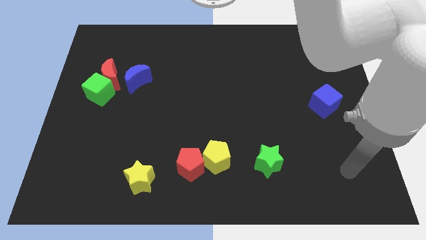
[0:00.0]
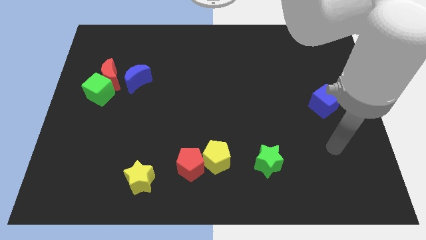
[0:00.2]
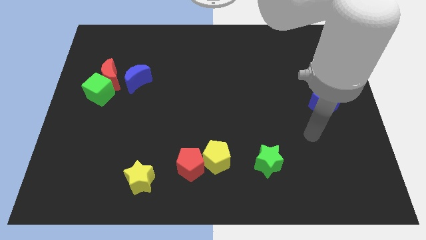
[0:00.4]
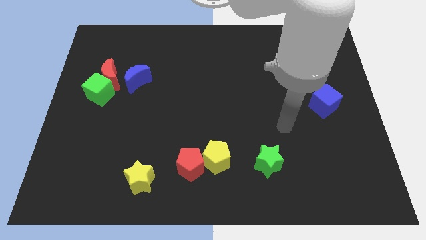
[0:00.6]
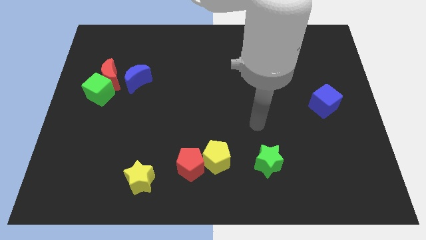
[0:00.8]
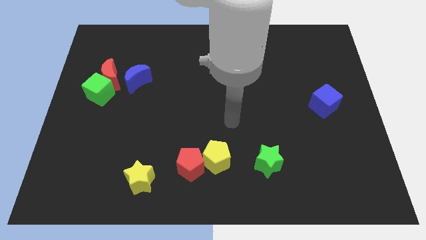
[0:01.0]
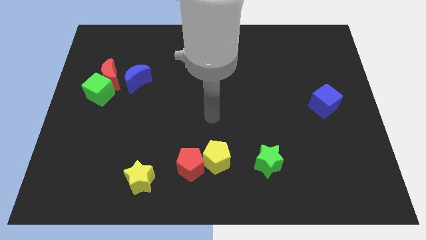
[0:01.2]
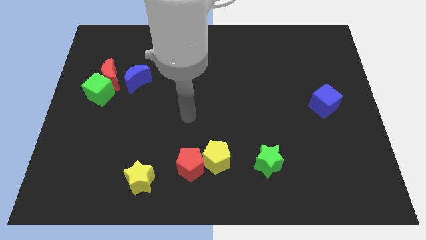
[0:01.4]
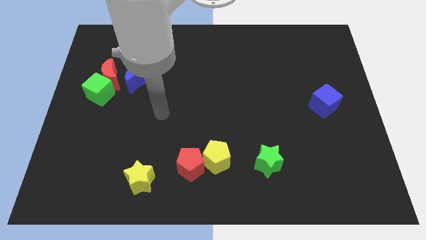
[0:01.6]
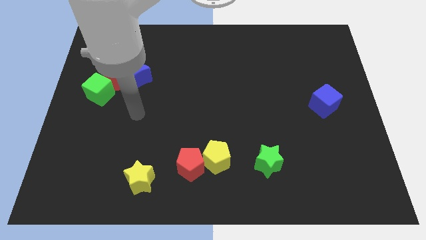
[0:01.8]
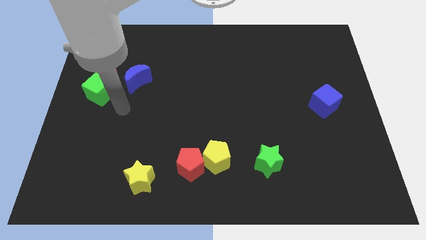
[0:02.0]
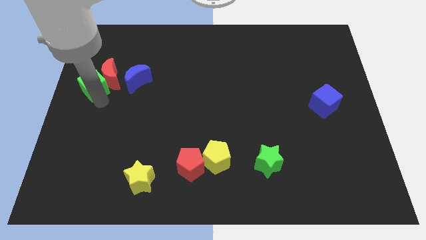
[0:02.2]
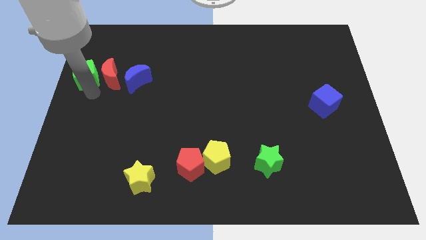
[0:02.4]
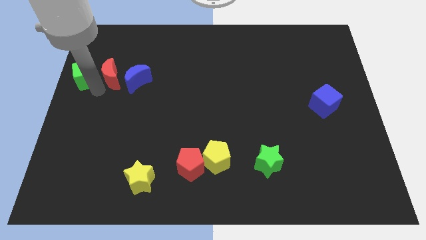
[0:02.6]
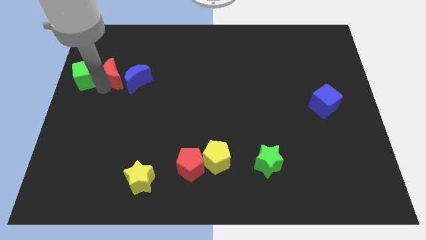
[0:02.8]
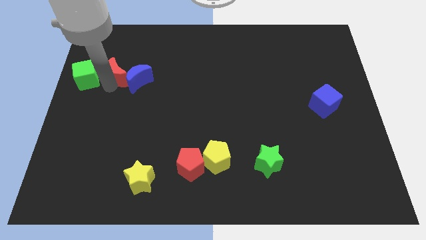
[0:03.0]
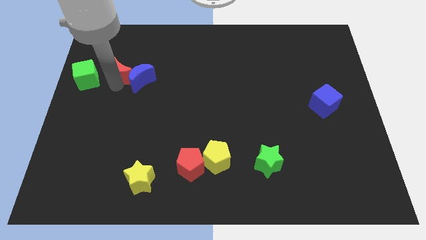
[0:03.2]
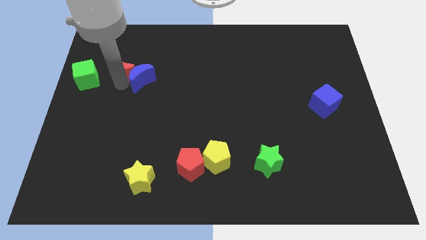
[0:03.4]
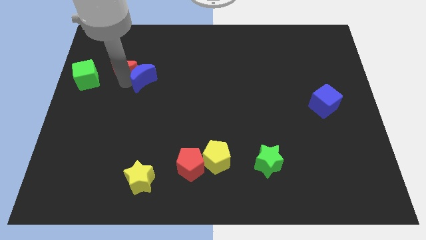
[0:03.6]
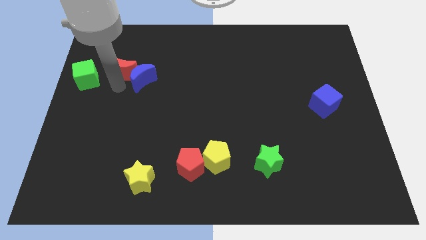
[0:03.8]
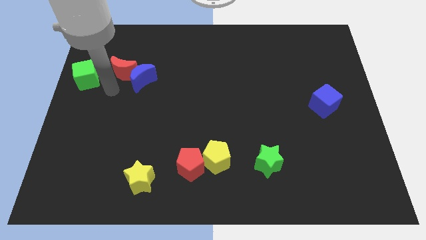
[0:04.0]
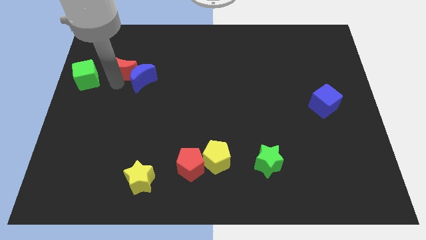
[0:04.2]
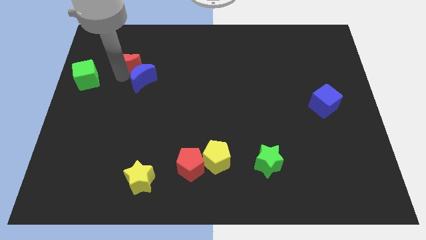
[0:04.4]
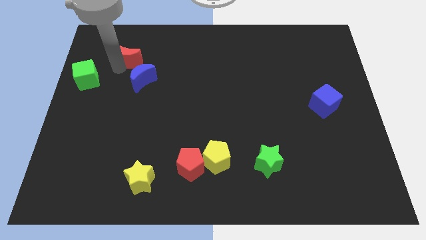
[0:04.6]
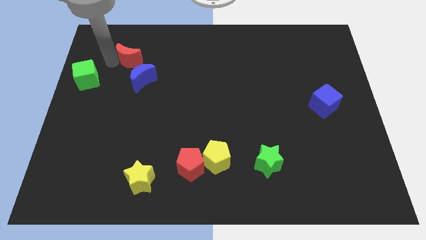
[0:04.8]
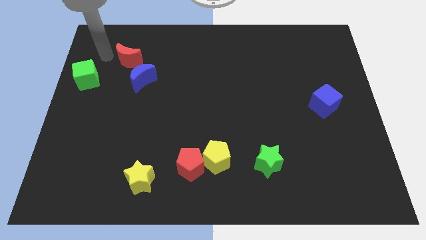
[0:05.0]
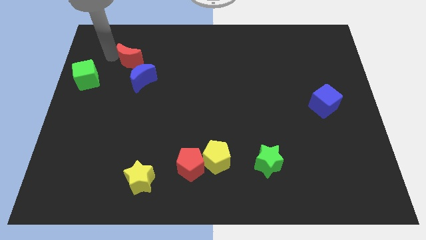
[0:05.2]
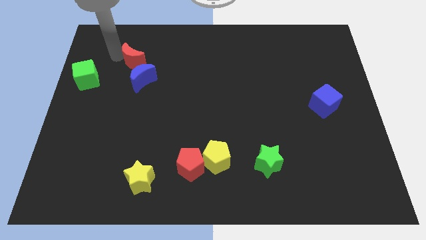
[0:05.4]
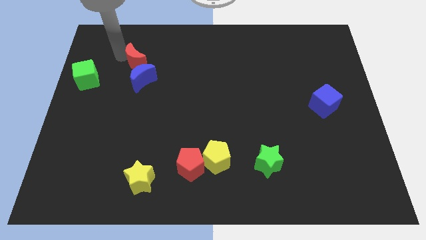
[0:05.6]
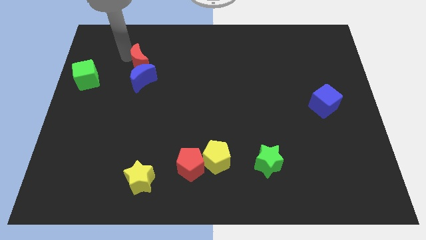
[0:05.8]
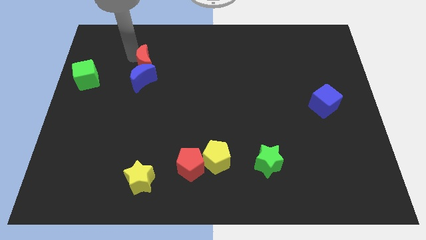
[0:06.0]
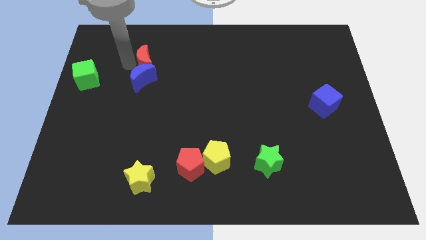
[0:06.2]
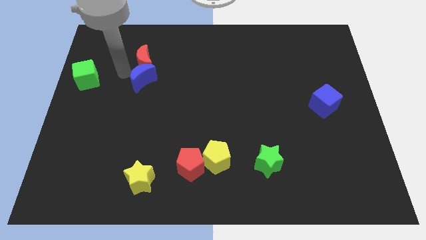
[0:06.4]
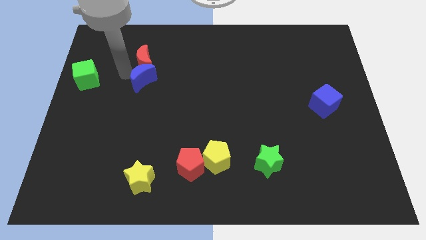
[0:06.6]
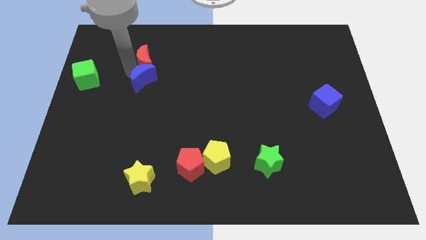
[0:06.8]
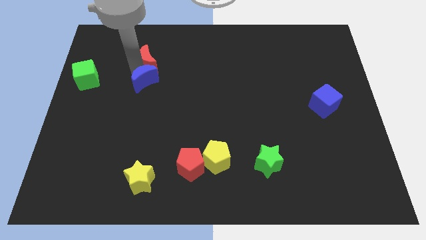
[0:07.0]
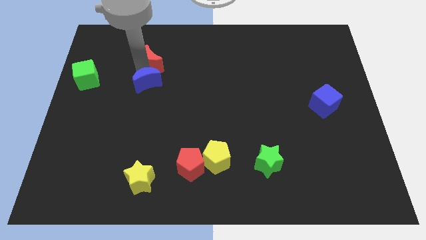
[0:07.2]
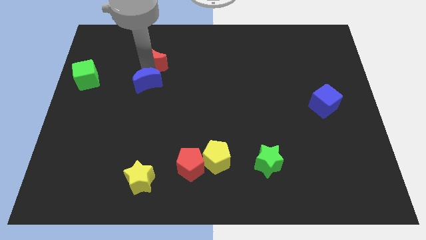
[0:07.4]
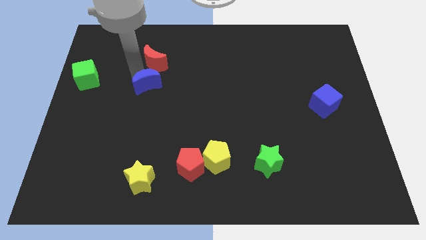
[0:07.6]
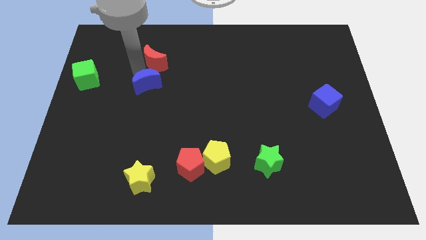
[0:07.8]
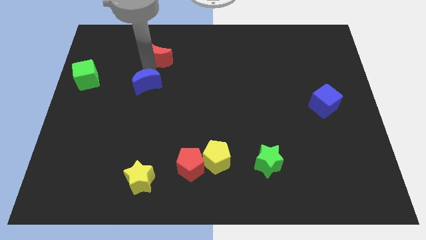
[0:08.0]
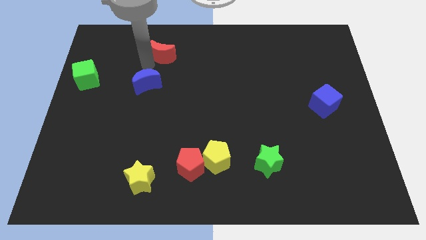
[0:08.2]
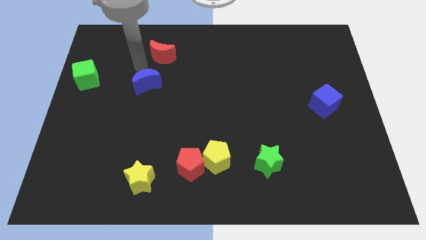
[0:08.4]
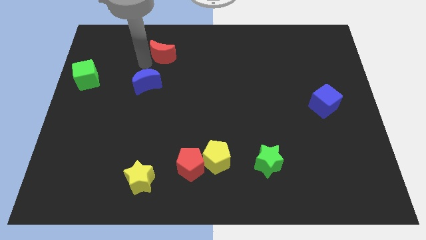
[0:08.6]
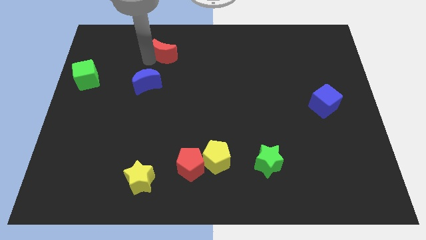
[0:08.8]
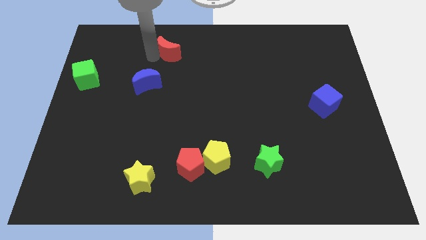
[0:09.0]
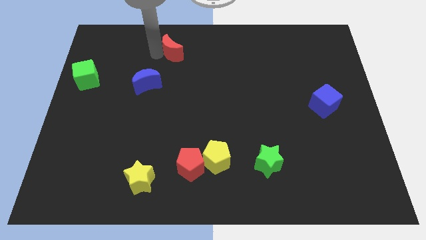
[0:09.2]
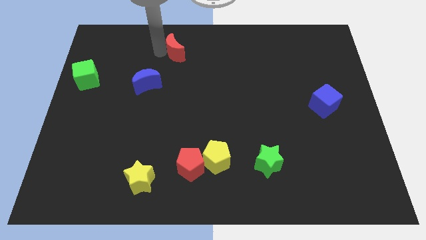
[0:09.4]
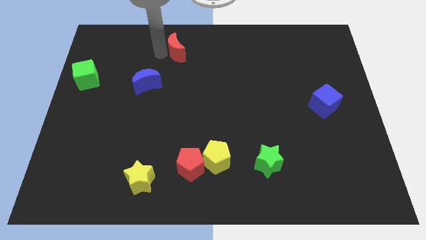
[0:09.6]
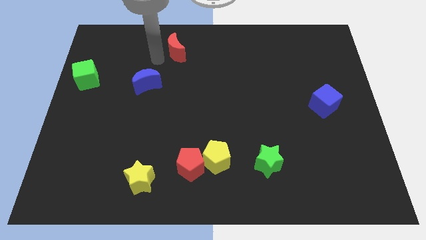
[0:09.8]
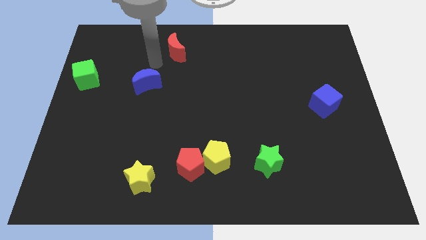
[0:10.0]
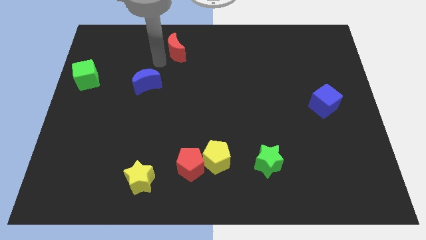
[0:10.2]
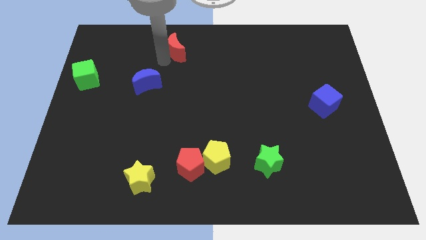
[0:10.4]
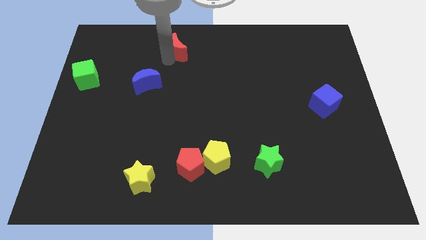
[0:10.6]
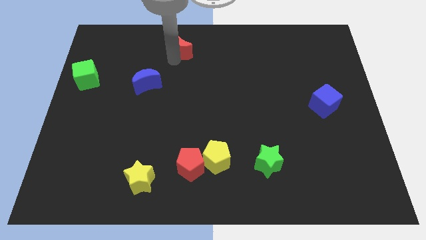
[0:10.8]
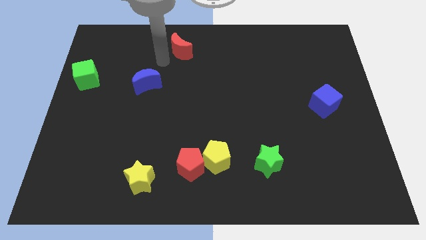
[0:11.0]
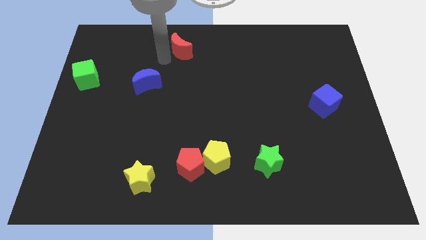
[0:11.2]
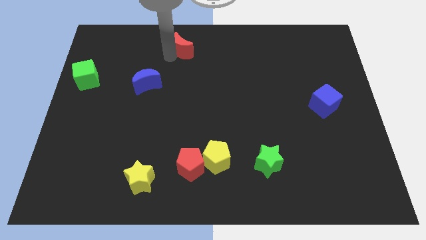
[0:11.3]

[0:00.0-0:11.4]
put the red moon to the top
